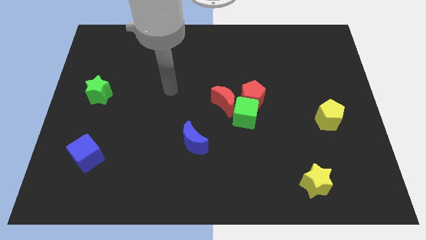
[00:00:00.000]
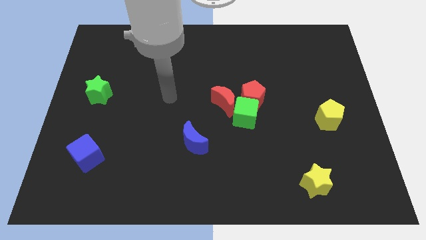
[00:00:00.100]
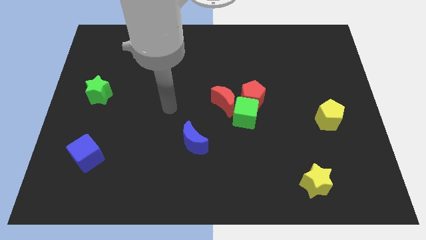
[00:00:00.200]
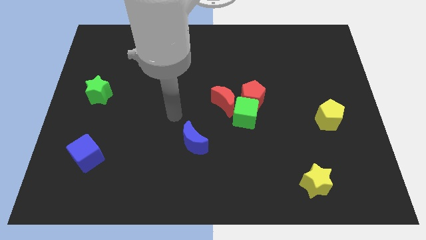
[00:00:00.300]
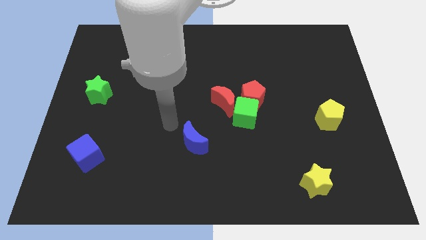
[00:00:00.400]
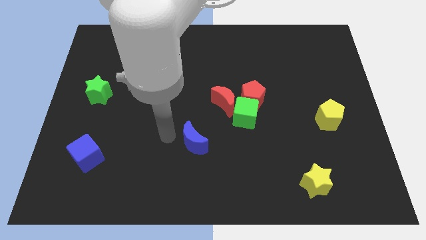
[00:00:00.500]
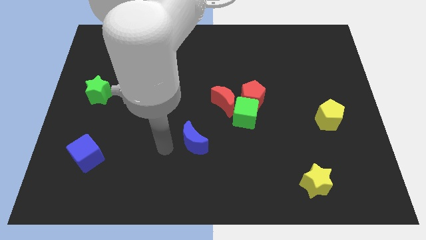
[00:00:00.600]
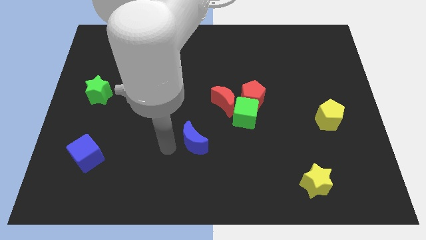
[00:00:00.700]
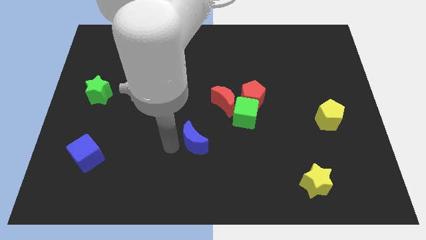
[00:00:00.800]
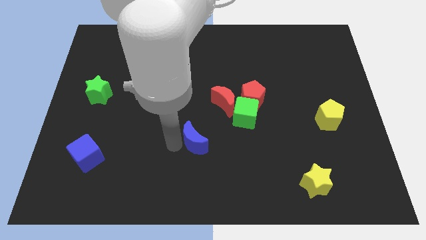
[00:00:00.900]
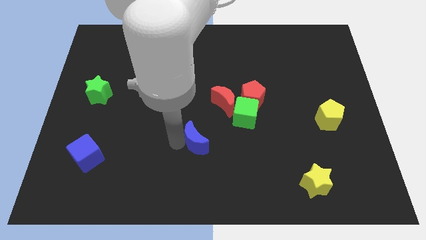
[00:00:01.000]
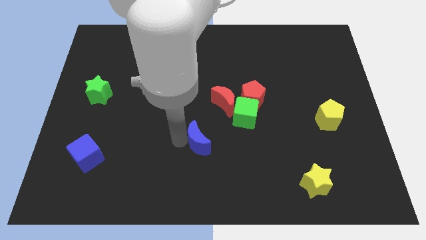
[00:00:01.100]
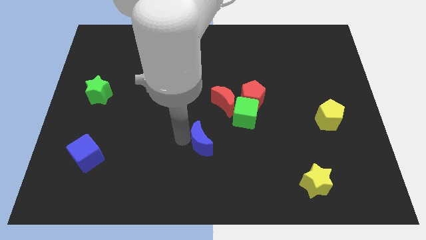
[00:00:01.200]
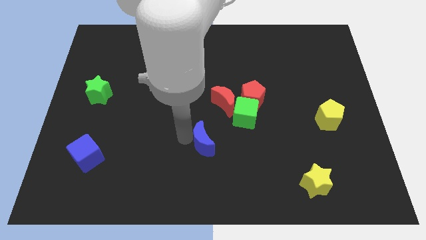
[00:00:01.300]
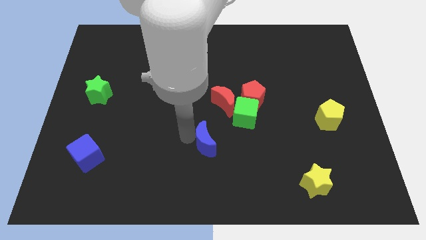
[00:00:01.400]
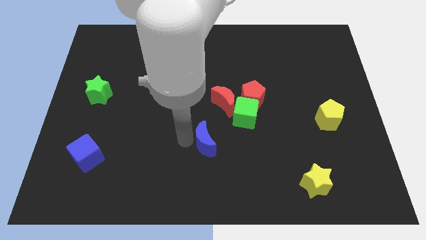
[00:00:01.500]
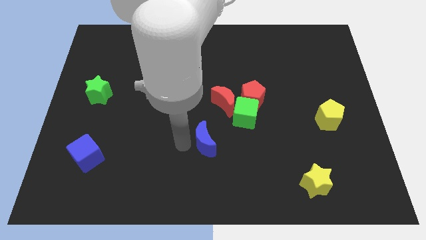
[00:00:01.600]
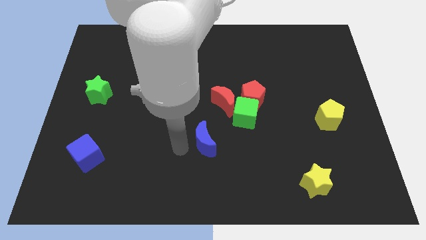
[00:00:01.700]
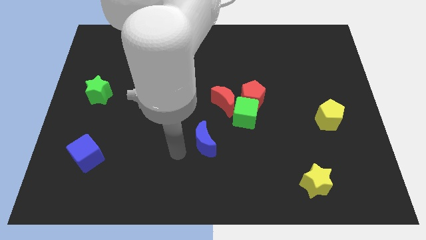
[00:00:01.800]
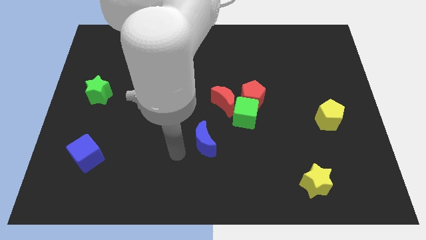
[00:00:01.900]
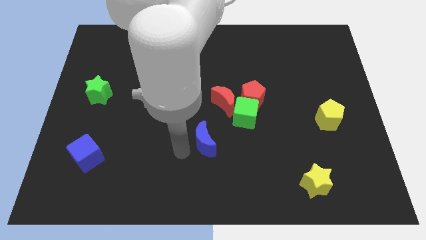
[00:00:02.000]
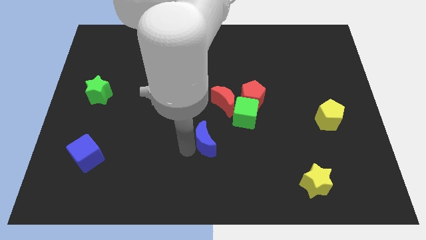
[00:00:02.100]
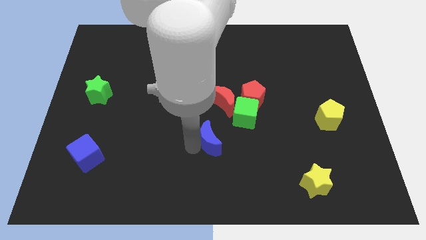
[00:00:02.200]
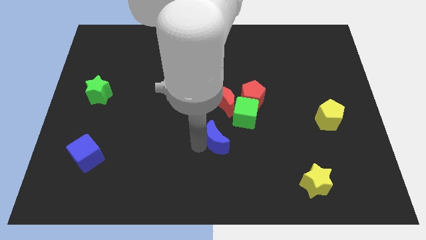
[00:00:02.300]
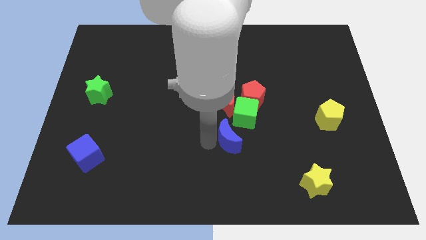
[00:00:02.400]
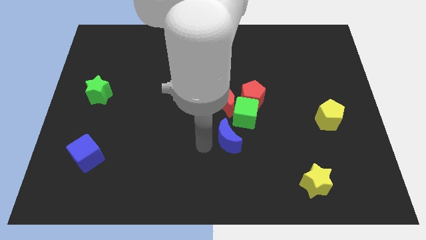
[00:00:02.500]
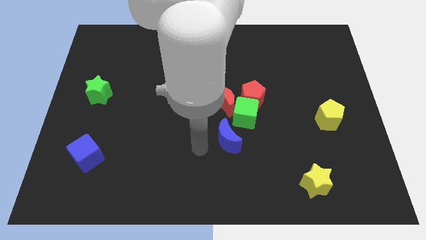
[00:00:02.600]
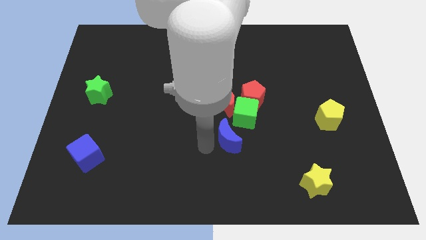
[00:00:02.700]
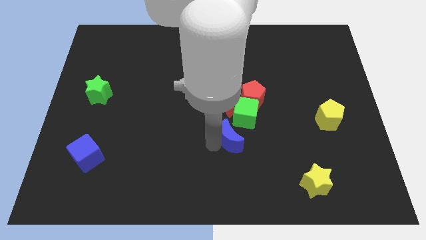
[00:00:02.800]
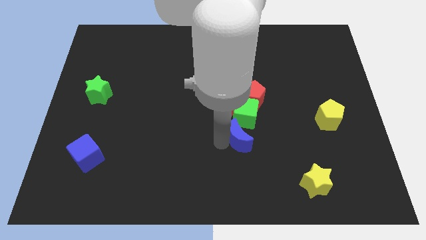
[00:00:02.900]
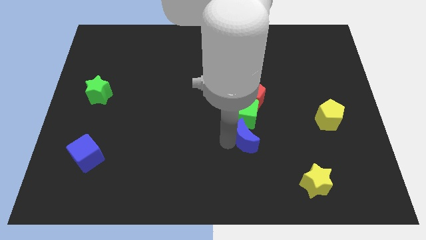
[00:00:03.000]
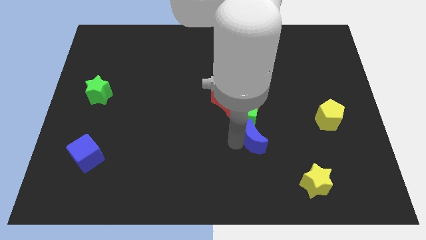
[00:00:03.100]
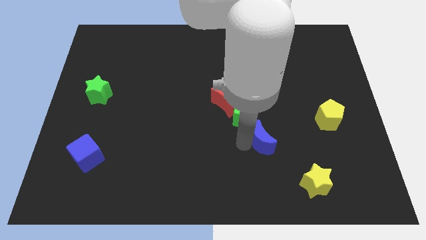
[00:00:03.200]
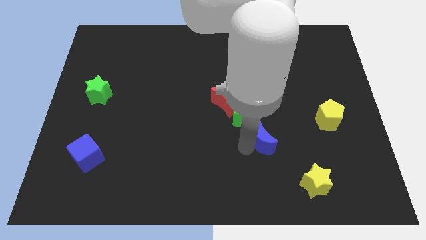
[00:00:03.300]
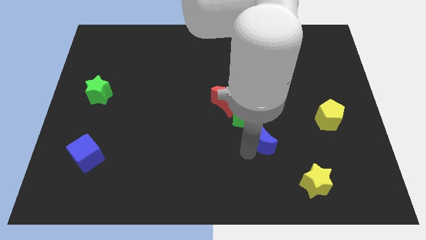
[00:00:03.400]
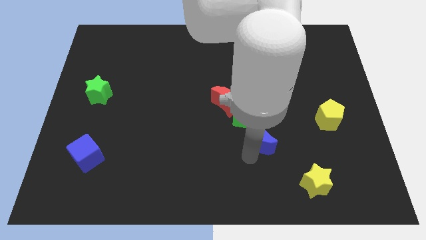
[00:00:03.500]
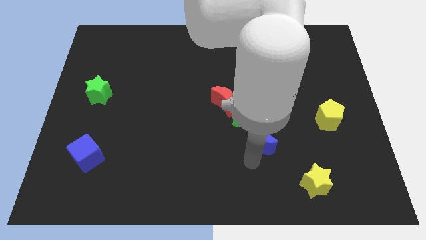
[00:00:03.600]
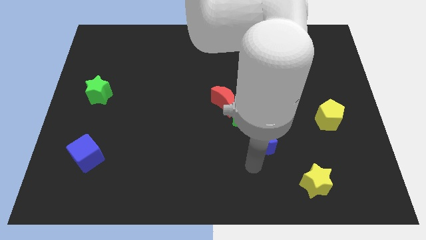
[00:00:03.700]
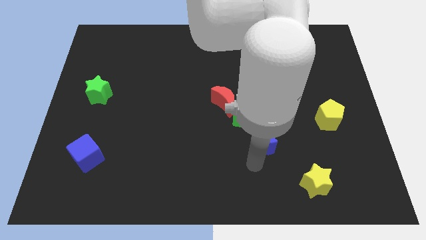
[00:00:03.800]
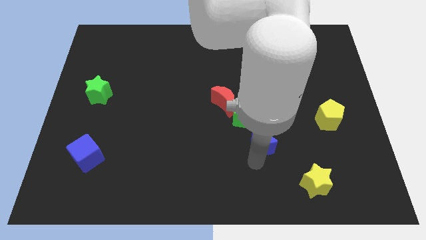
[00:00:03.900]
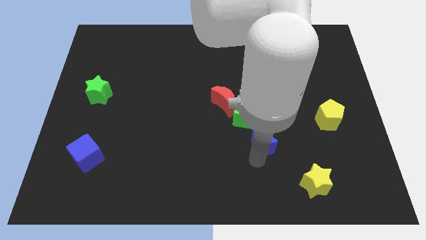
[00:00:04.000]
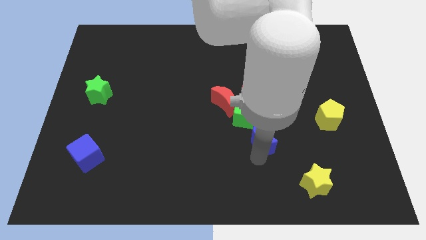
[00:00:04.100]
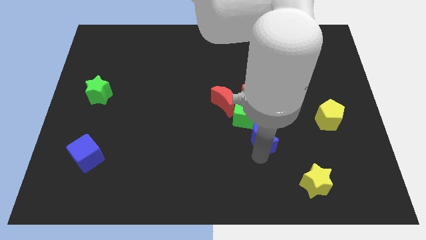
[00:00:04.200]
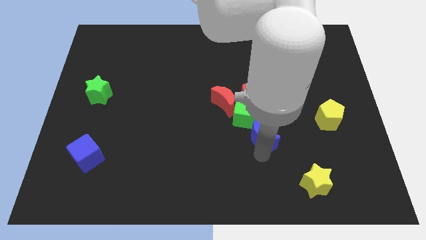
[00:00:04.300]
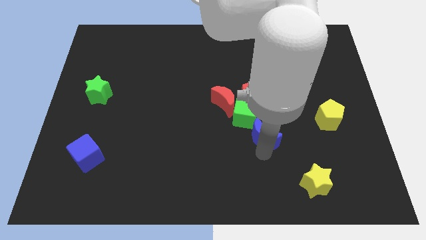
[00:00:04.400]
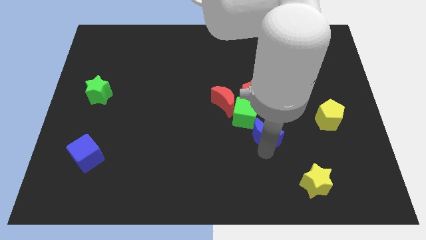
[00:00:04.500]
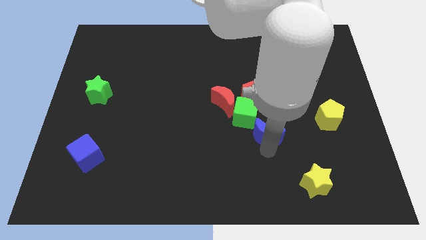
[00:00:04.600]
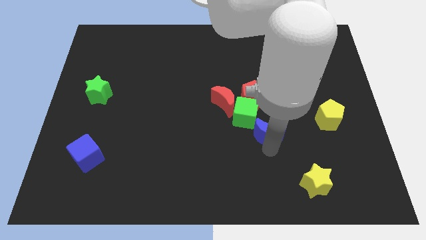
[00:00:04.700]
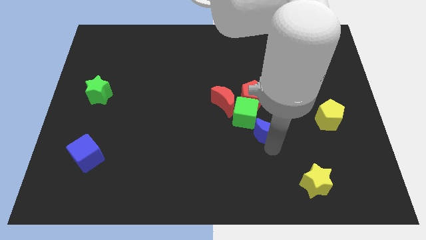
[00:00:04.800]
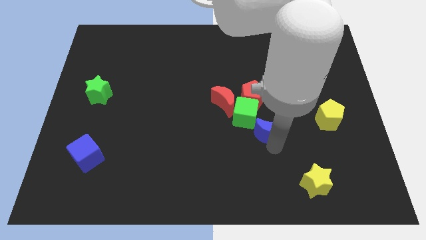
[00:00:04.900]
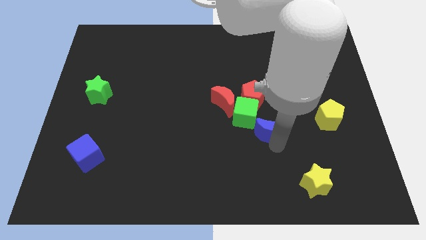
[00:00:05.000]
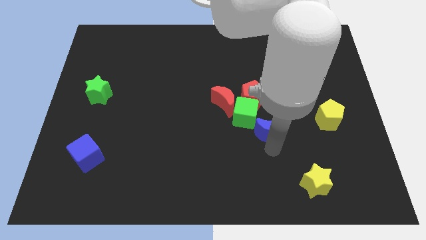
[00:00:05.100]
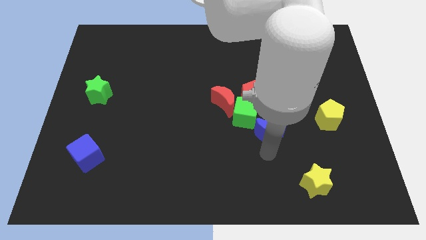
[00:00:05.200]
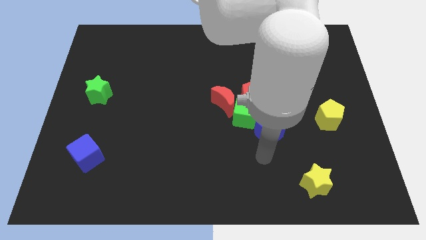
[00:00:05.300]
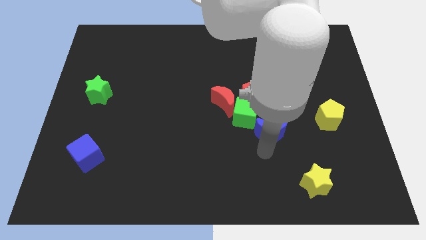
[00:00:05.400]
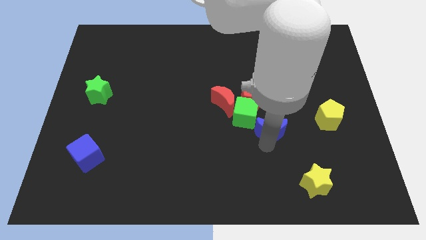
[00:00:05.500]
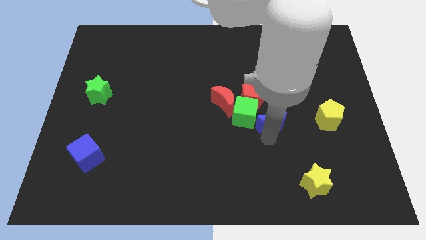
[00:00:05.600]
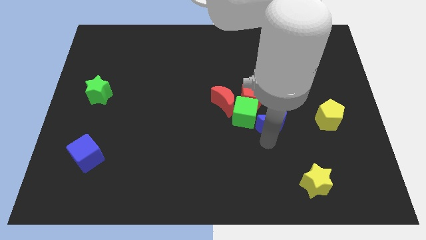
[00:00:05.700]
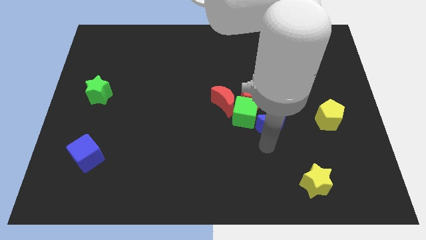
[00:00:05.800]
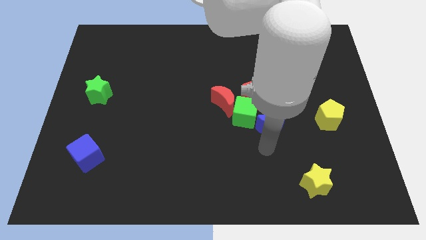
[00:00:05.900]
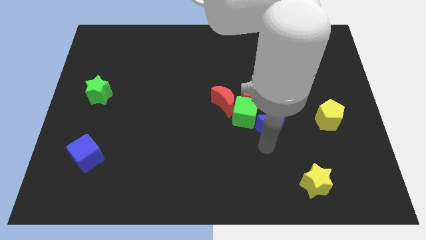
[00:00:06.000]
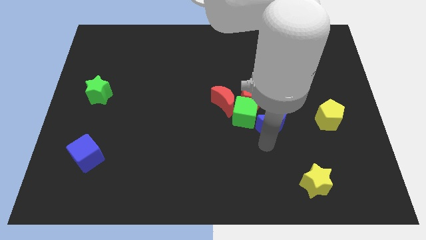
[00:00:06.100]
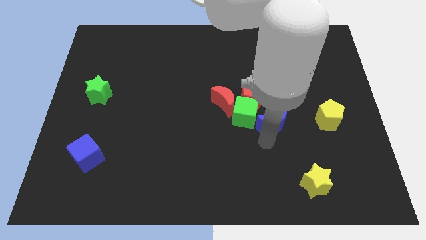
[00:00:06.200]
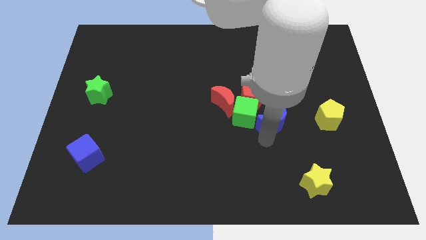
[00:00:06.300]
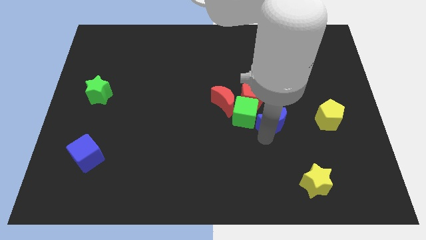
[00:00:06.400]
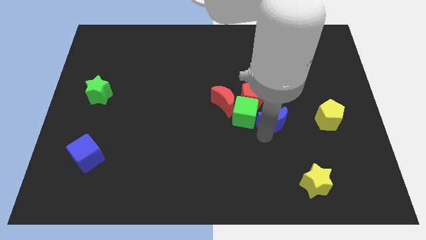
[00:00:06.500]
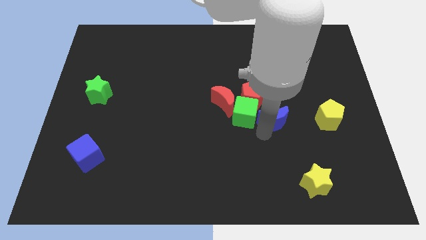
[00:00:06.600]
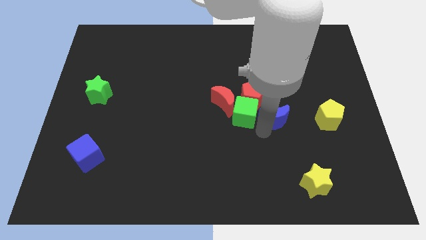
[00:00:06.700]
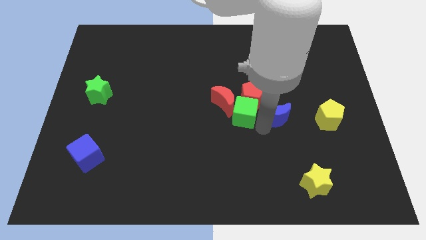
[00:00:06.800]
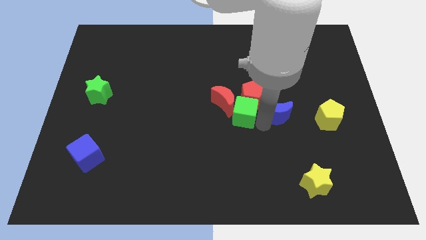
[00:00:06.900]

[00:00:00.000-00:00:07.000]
put the blue moon right of the red pentagon
